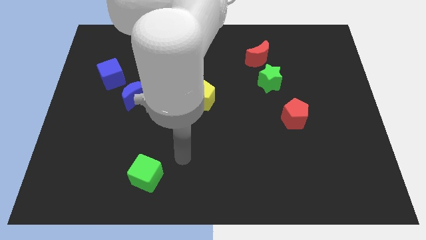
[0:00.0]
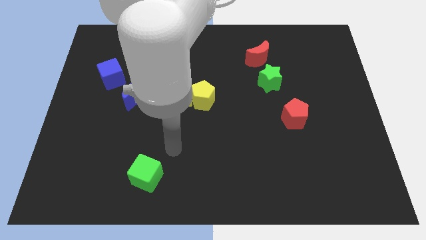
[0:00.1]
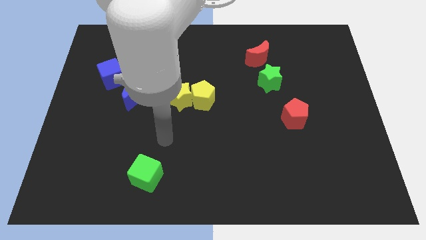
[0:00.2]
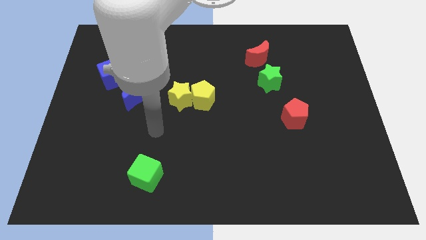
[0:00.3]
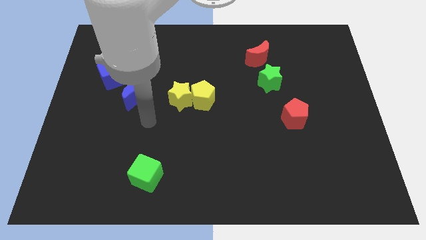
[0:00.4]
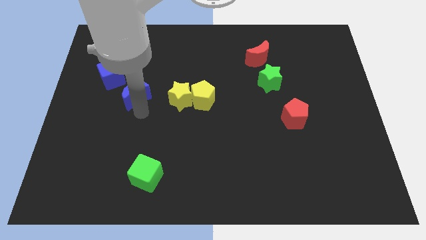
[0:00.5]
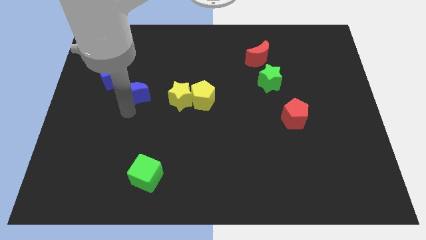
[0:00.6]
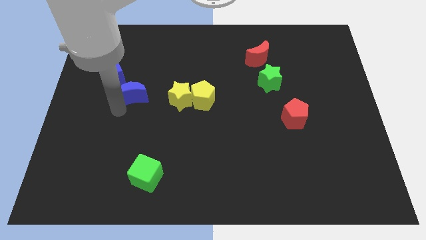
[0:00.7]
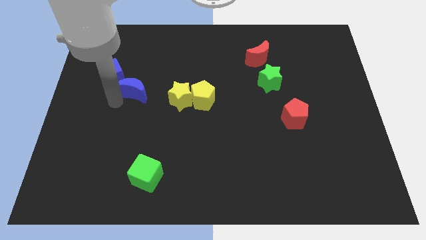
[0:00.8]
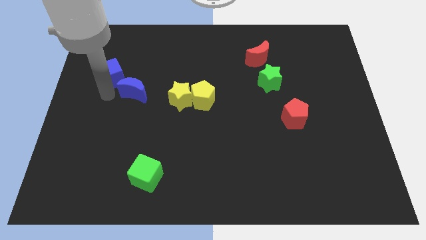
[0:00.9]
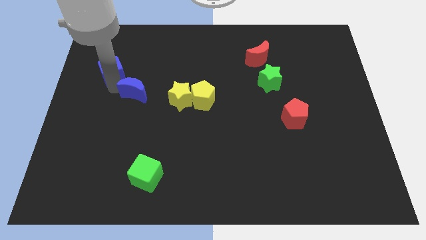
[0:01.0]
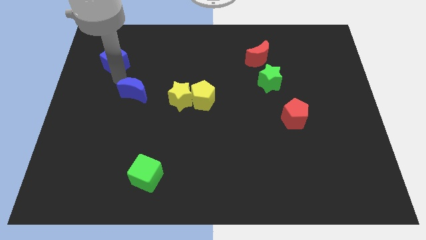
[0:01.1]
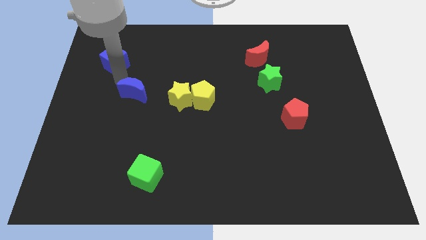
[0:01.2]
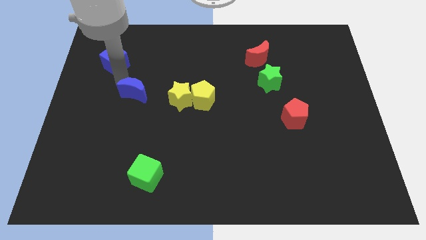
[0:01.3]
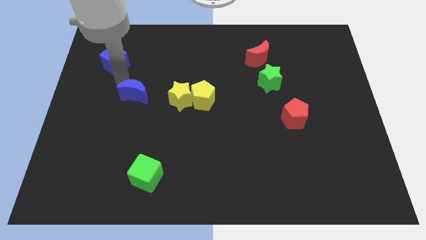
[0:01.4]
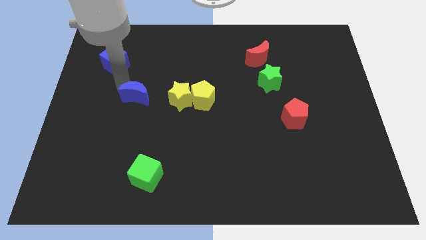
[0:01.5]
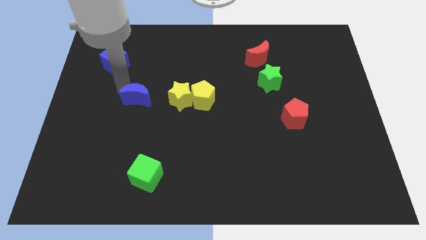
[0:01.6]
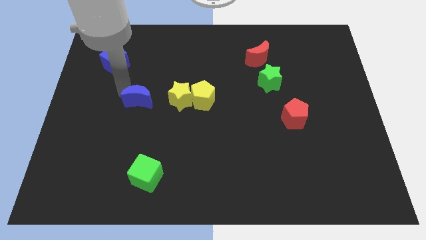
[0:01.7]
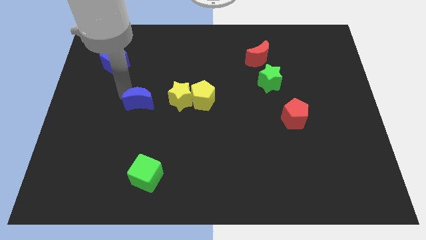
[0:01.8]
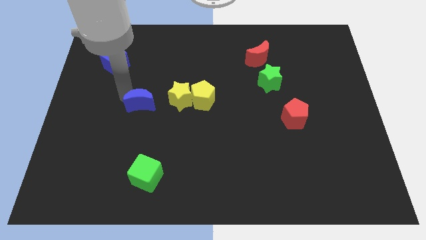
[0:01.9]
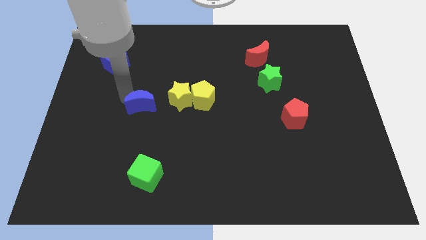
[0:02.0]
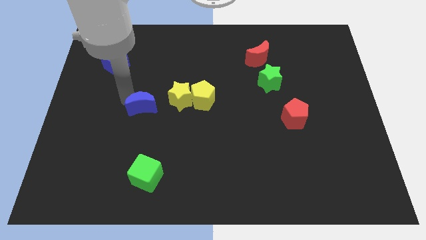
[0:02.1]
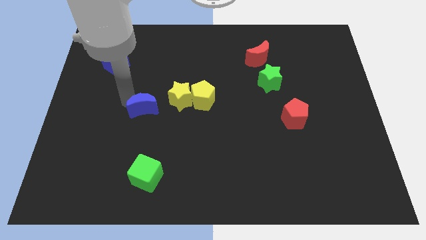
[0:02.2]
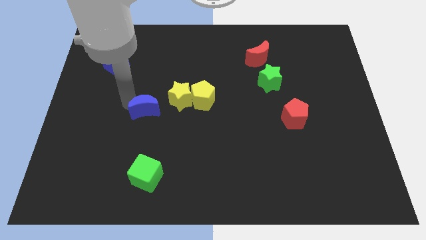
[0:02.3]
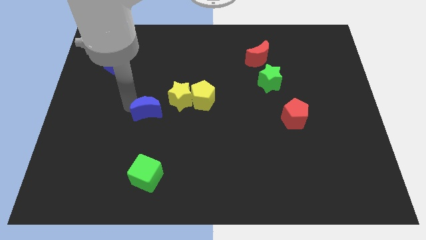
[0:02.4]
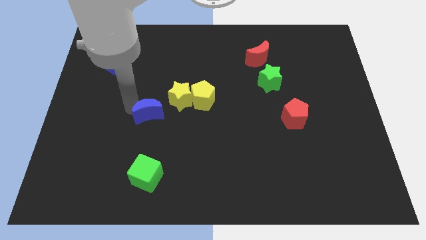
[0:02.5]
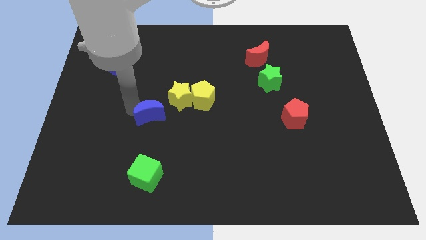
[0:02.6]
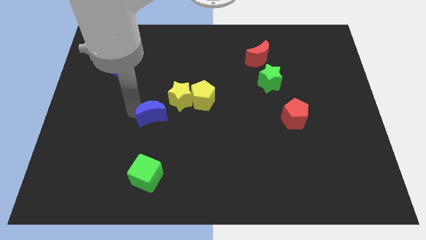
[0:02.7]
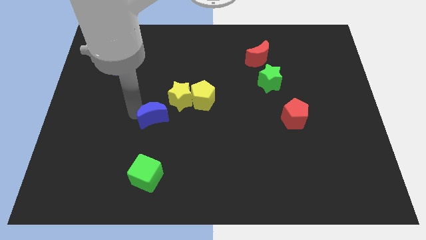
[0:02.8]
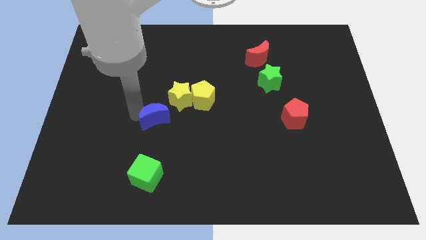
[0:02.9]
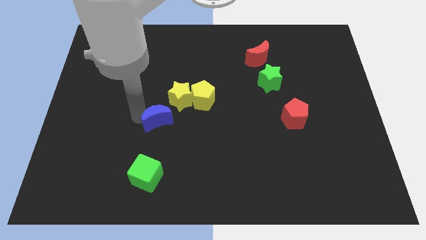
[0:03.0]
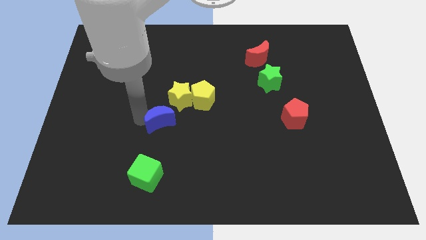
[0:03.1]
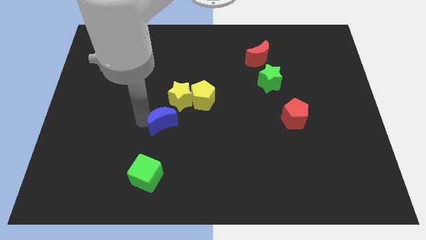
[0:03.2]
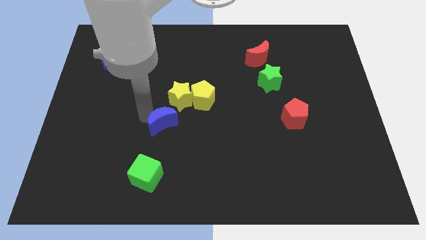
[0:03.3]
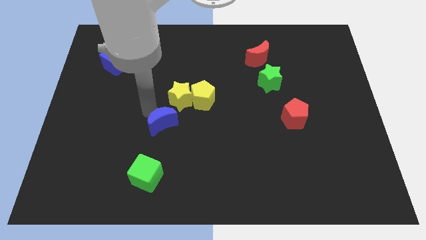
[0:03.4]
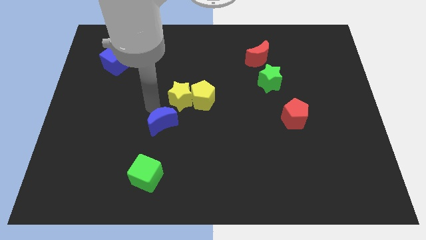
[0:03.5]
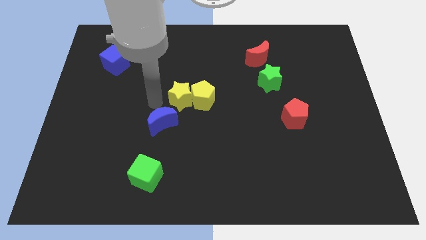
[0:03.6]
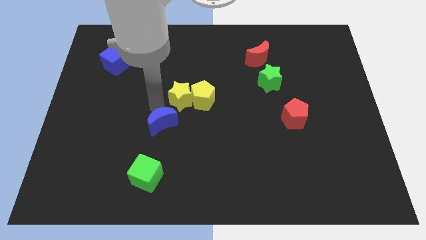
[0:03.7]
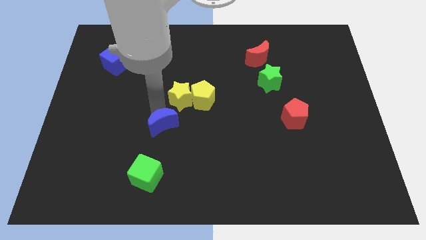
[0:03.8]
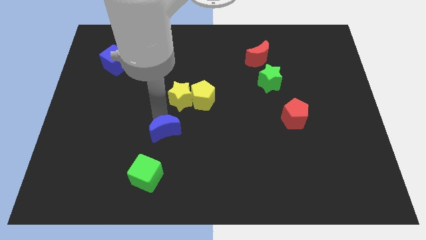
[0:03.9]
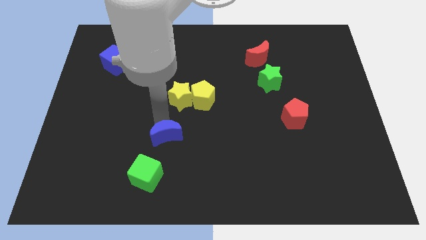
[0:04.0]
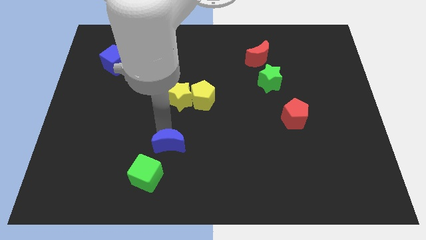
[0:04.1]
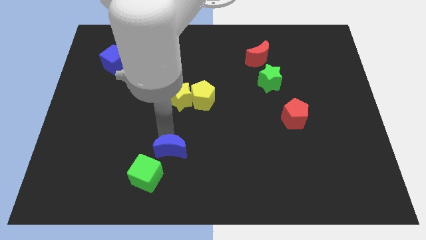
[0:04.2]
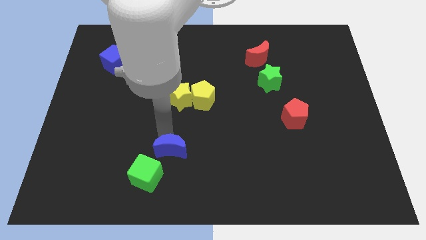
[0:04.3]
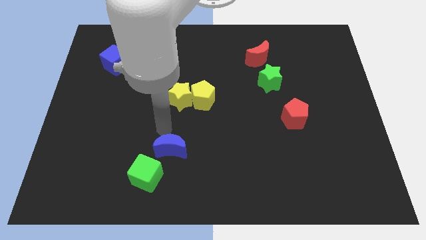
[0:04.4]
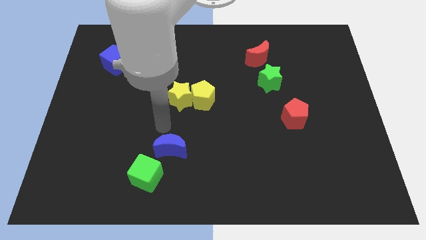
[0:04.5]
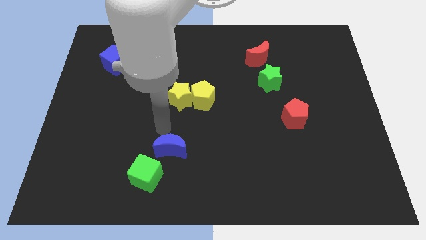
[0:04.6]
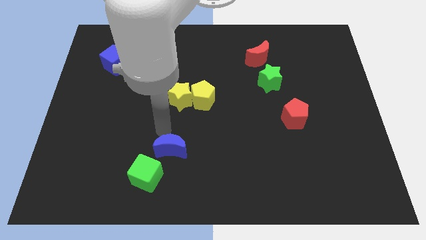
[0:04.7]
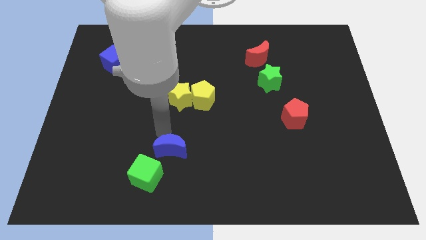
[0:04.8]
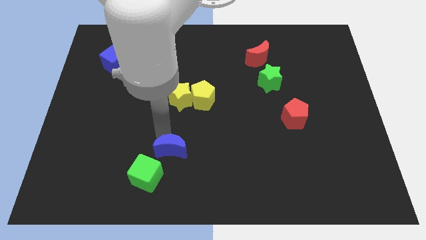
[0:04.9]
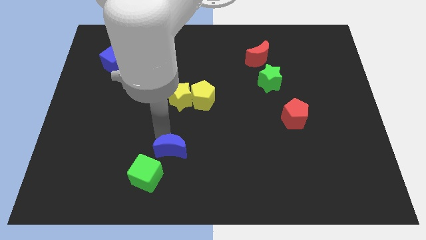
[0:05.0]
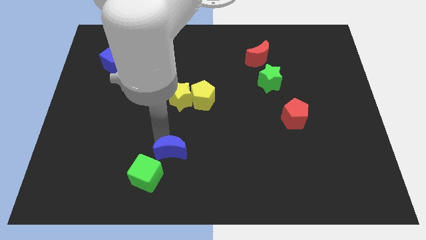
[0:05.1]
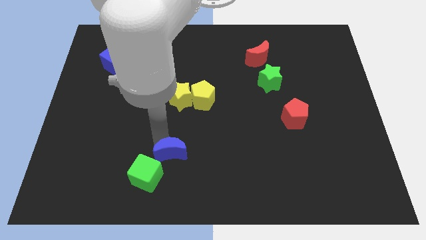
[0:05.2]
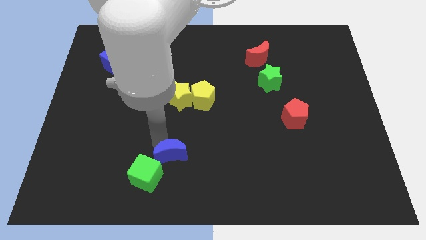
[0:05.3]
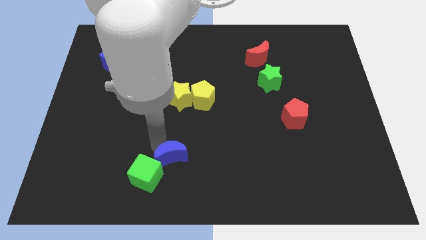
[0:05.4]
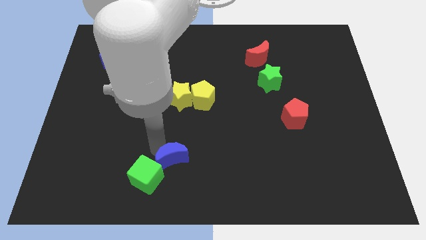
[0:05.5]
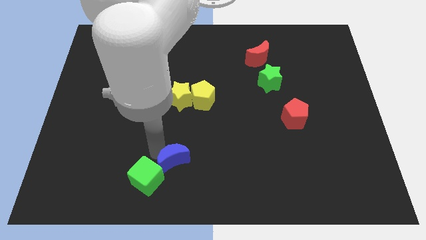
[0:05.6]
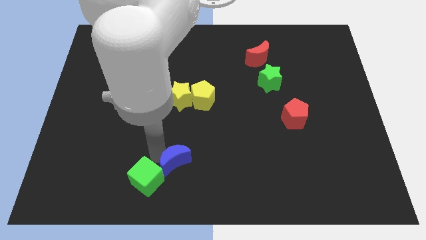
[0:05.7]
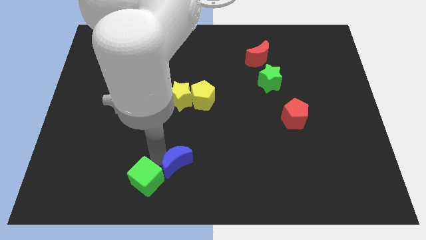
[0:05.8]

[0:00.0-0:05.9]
push the blue moon to the bottom side
